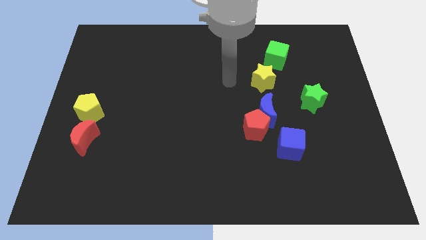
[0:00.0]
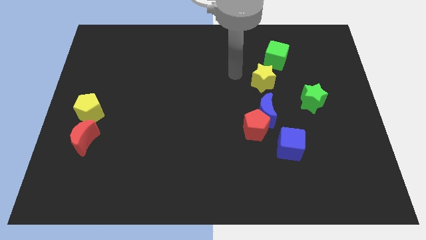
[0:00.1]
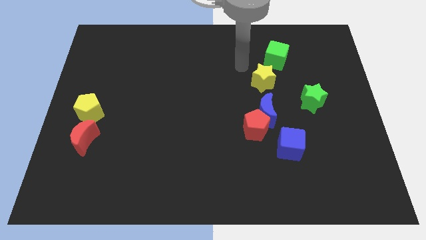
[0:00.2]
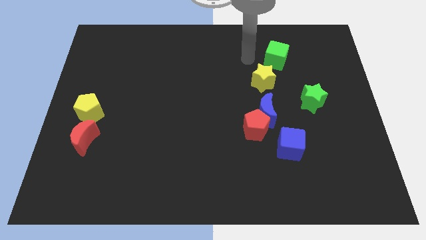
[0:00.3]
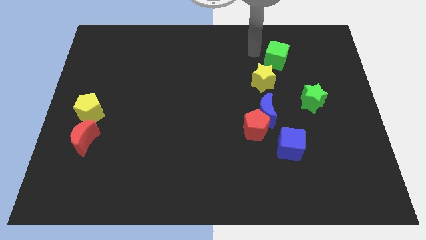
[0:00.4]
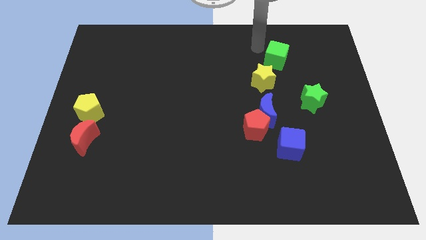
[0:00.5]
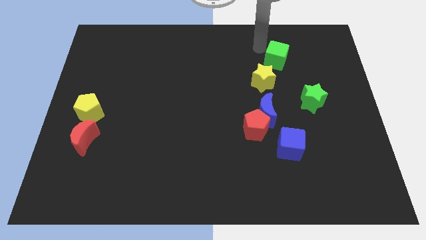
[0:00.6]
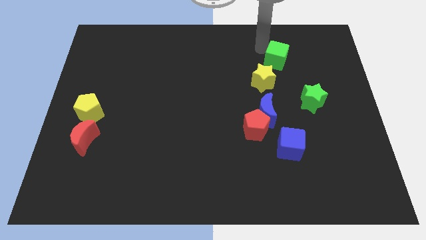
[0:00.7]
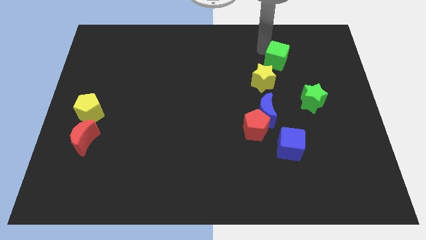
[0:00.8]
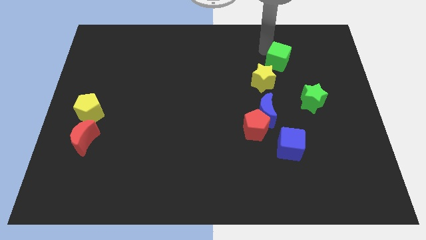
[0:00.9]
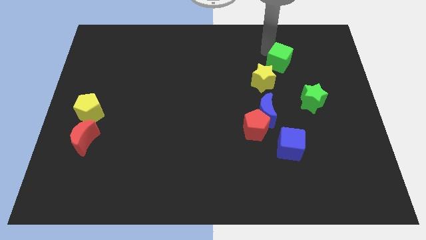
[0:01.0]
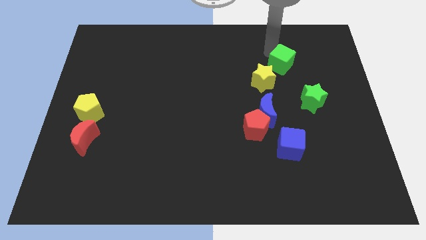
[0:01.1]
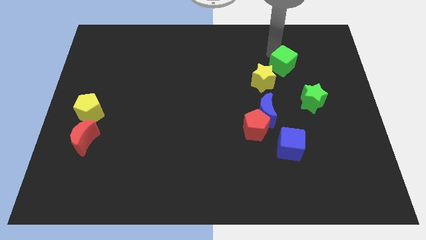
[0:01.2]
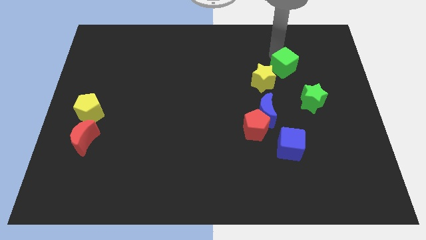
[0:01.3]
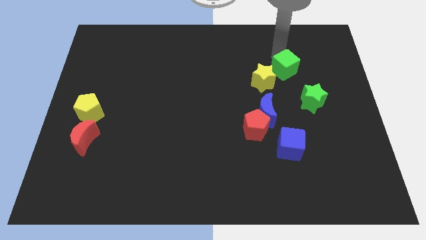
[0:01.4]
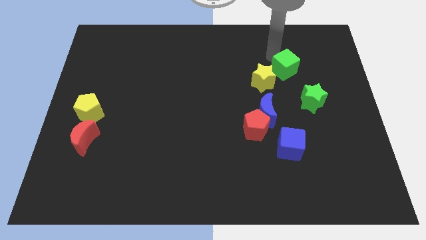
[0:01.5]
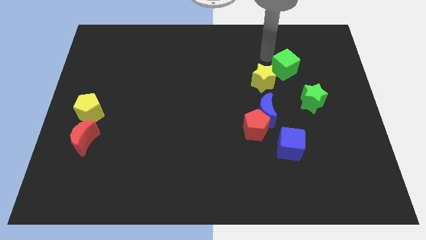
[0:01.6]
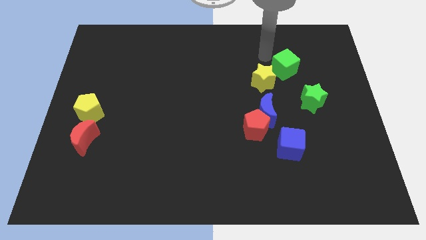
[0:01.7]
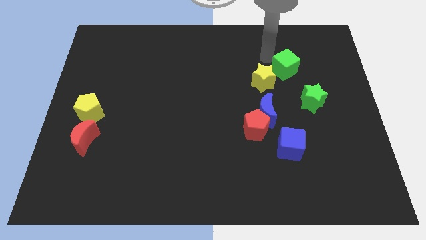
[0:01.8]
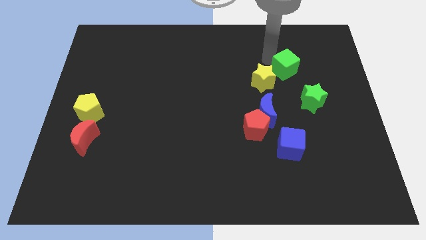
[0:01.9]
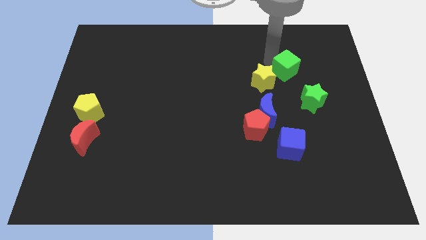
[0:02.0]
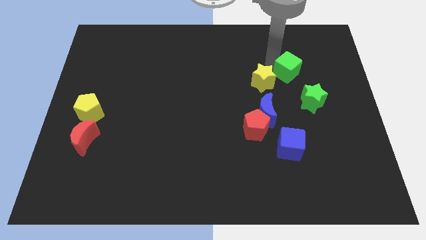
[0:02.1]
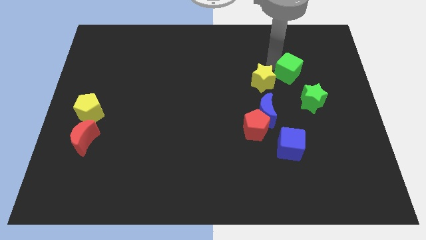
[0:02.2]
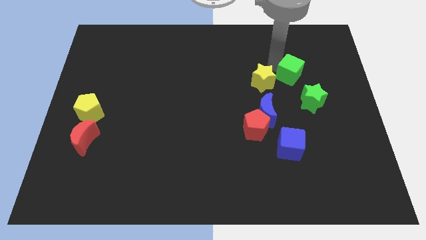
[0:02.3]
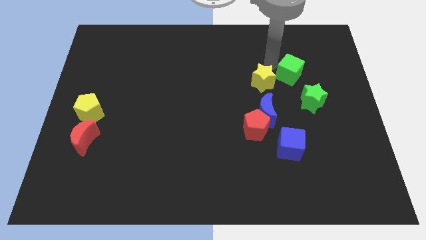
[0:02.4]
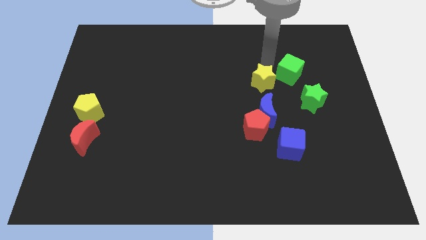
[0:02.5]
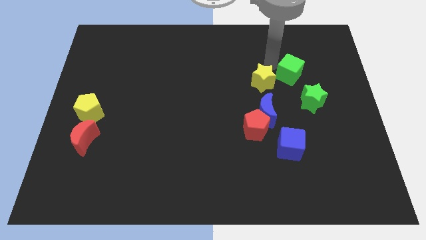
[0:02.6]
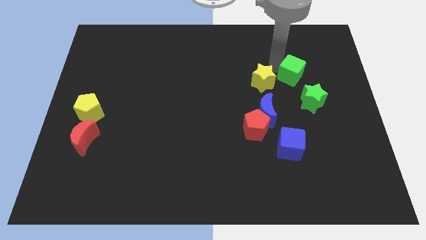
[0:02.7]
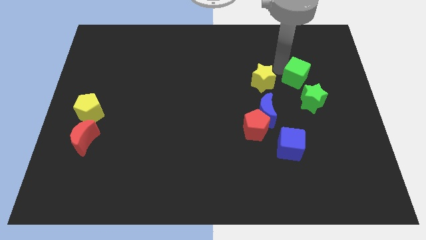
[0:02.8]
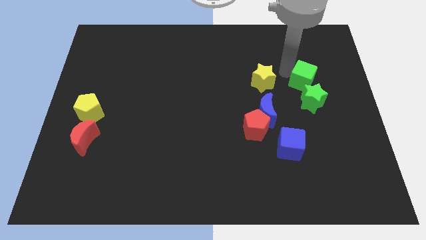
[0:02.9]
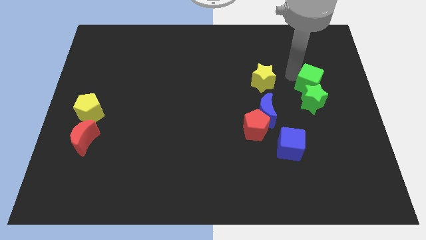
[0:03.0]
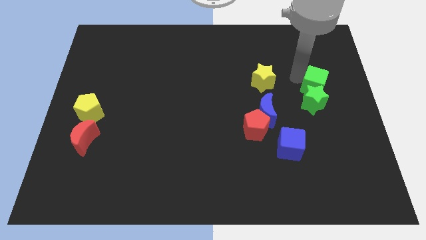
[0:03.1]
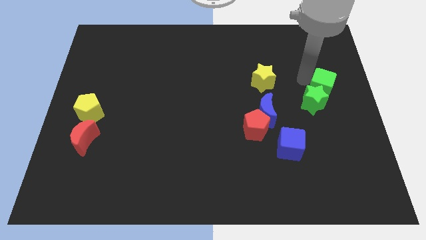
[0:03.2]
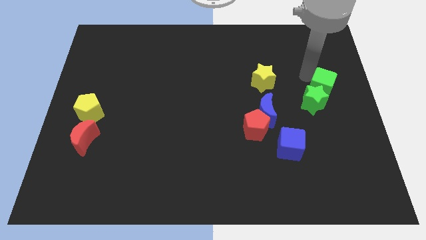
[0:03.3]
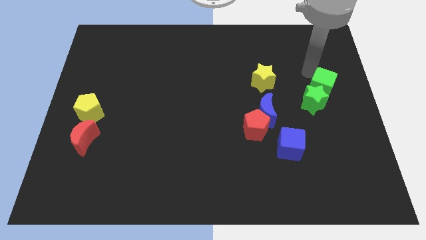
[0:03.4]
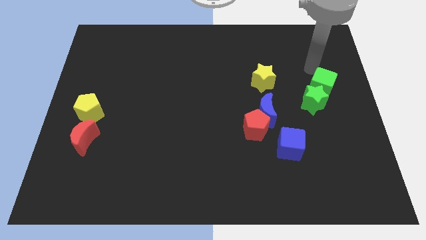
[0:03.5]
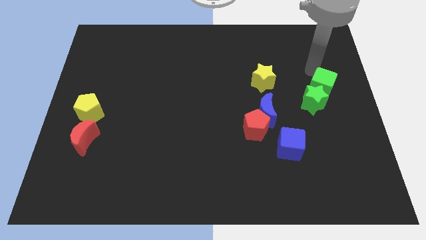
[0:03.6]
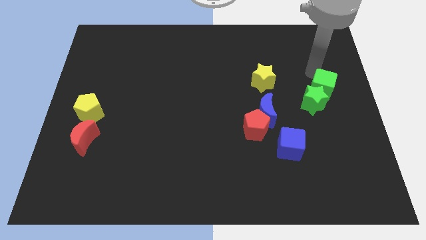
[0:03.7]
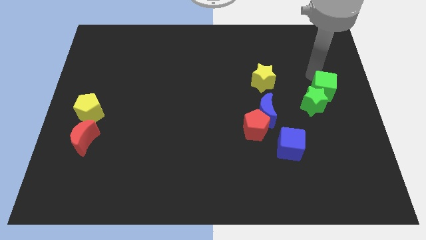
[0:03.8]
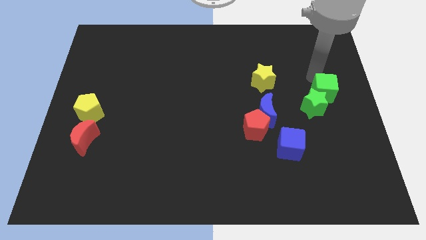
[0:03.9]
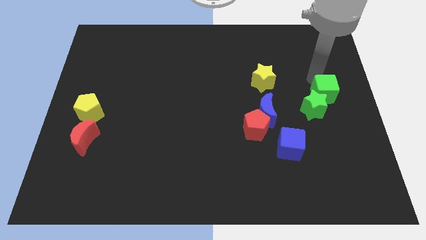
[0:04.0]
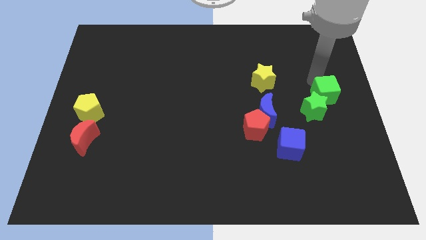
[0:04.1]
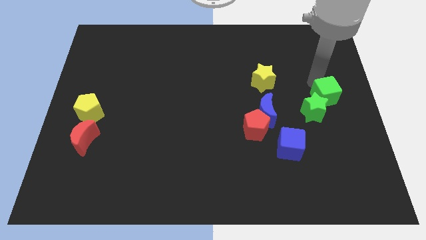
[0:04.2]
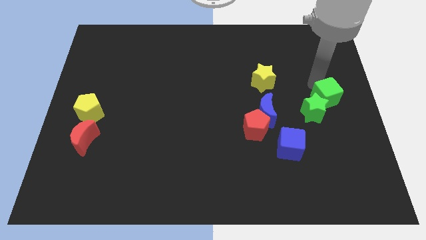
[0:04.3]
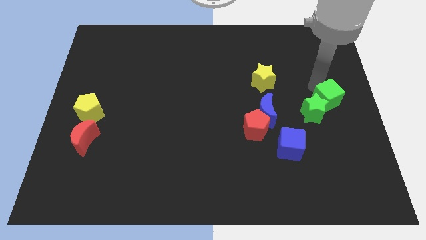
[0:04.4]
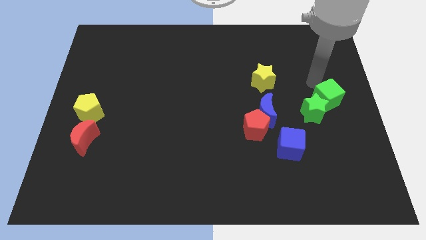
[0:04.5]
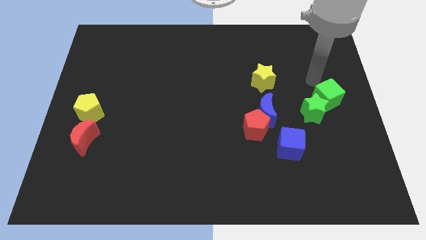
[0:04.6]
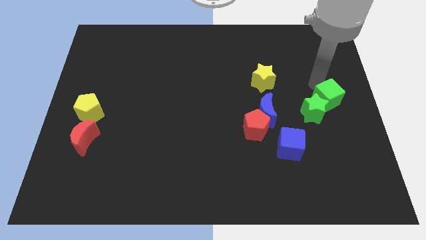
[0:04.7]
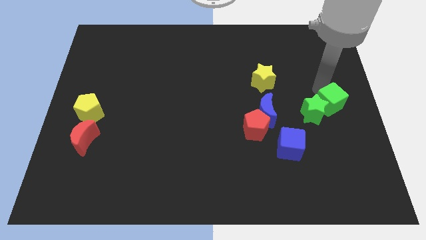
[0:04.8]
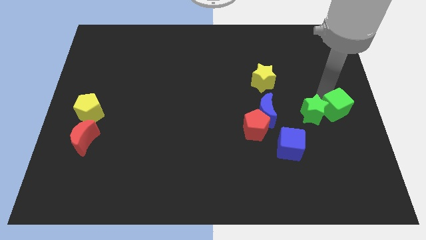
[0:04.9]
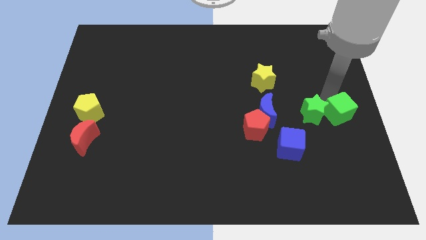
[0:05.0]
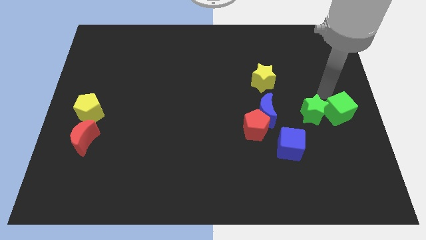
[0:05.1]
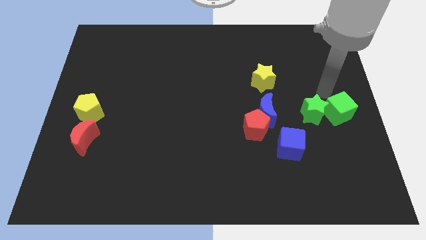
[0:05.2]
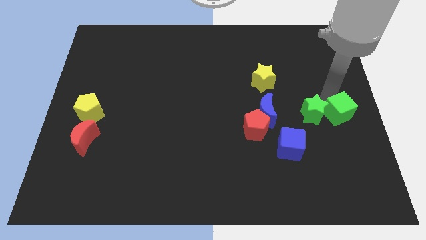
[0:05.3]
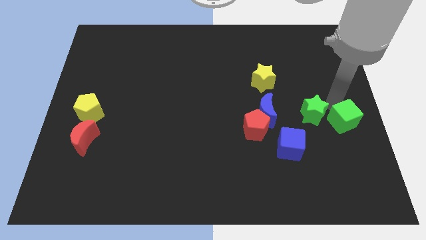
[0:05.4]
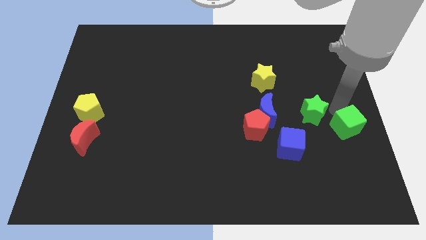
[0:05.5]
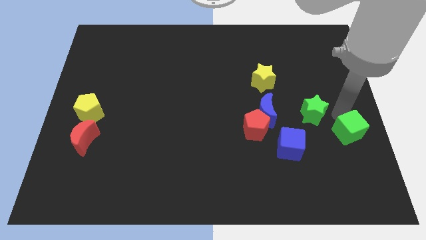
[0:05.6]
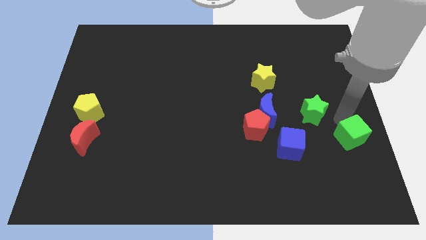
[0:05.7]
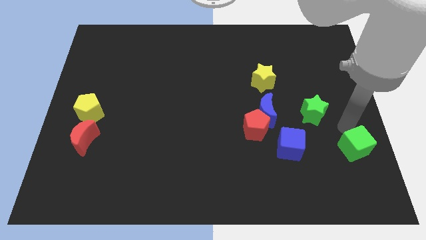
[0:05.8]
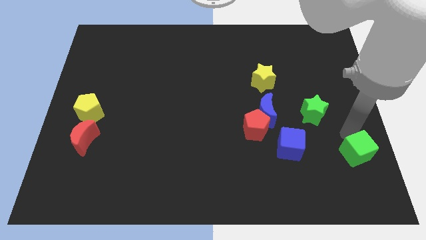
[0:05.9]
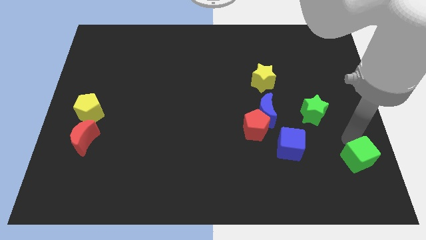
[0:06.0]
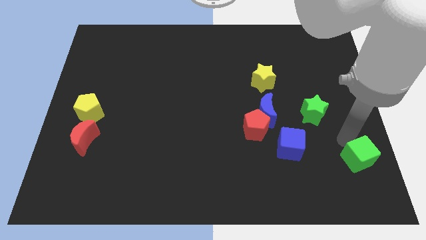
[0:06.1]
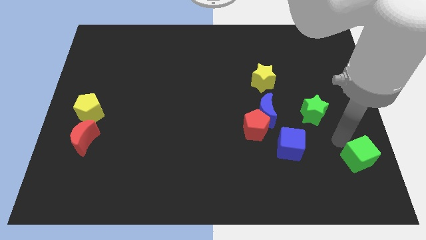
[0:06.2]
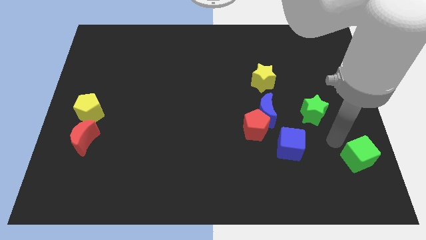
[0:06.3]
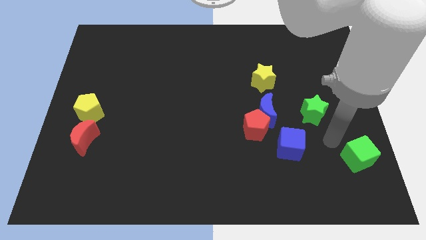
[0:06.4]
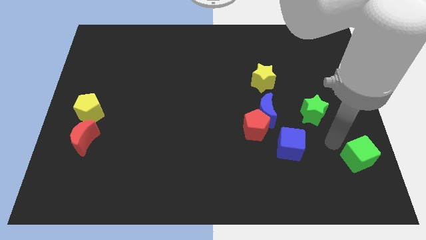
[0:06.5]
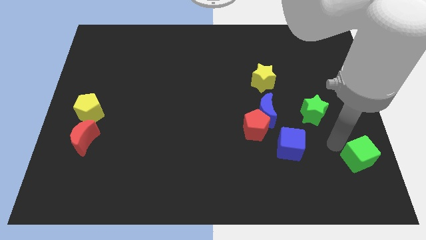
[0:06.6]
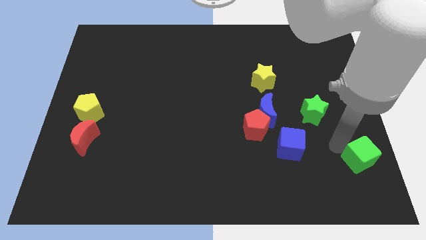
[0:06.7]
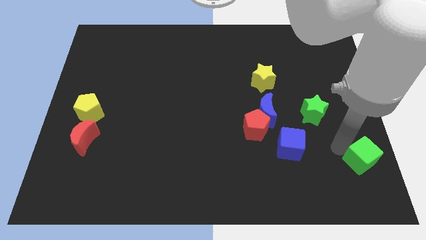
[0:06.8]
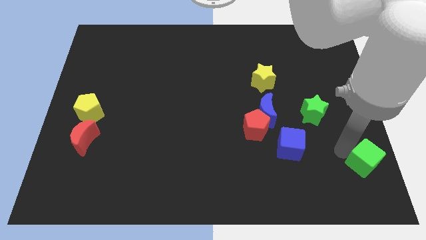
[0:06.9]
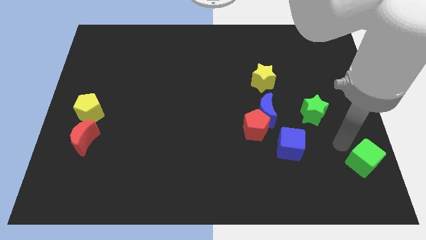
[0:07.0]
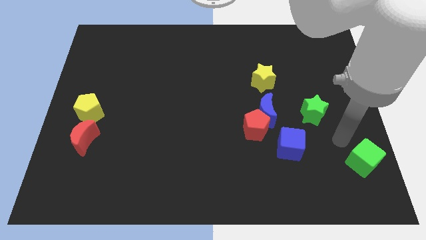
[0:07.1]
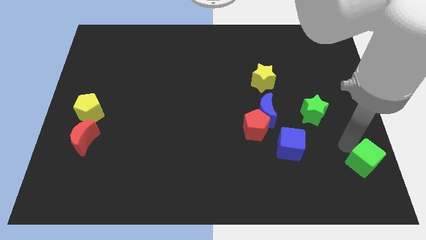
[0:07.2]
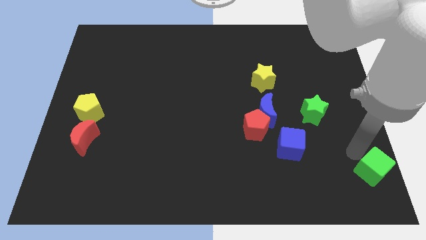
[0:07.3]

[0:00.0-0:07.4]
put the green cube to the bottom right corner
